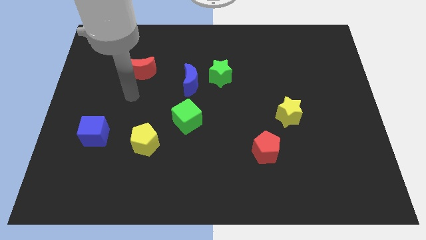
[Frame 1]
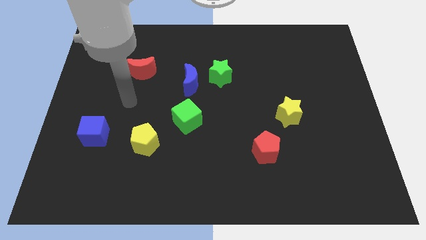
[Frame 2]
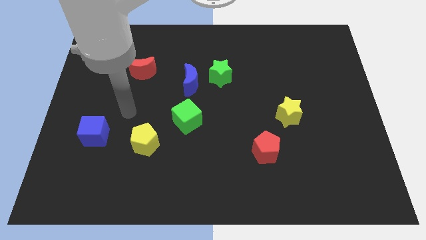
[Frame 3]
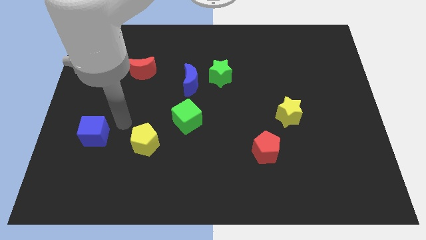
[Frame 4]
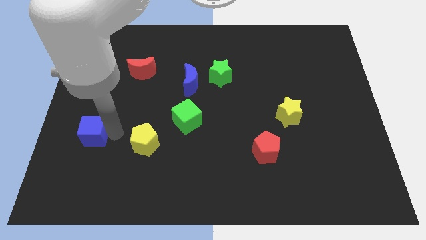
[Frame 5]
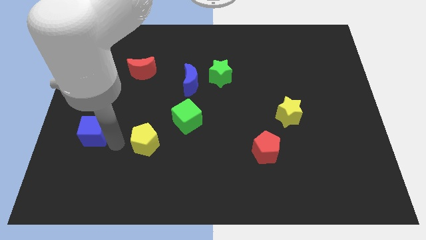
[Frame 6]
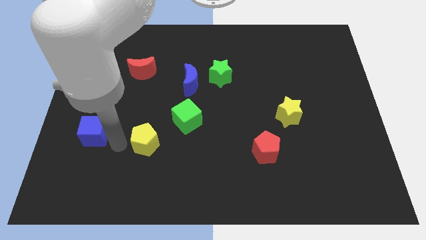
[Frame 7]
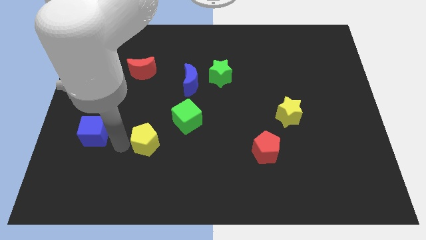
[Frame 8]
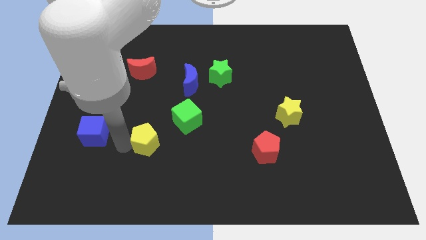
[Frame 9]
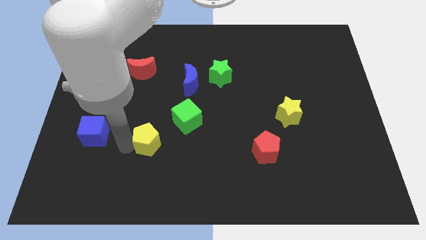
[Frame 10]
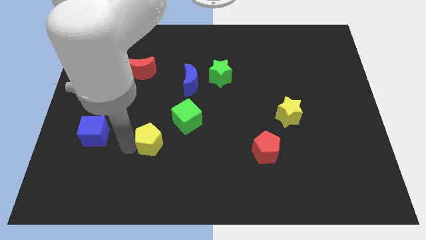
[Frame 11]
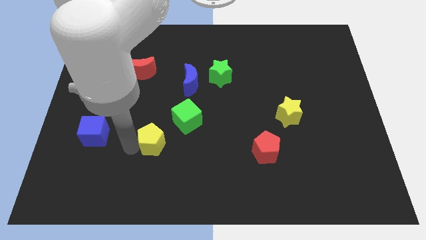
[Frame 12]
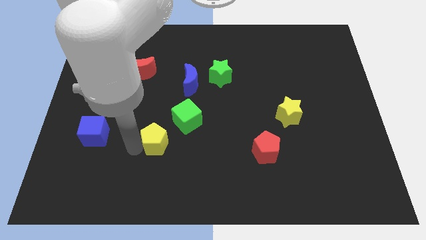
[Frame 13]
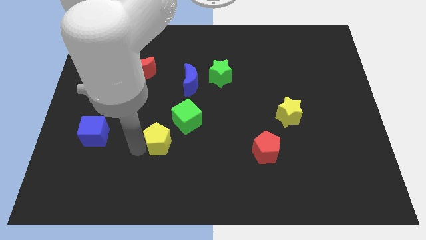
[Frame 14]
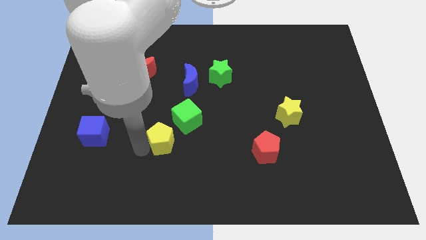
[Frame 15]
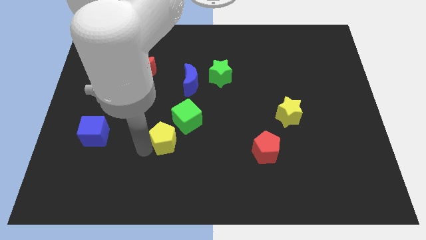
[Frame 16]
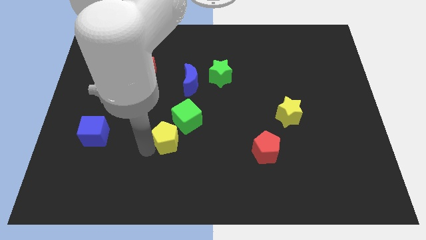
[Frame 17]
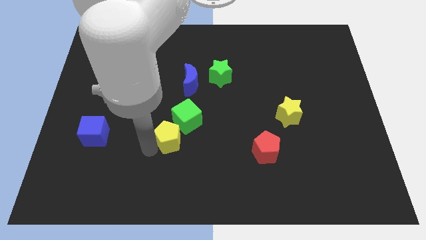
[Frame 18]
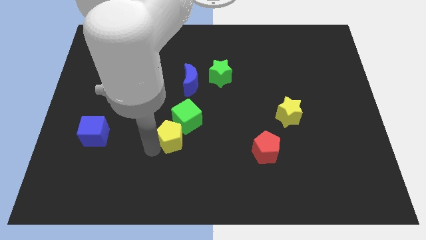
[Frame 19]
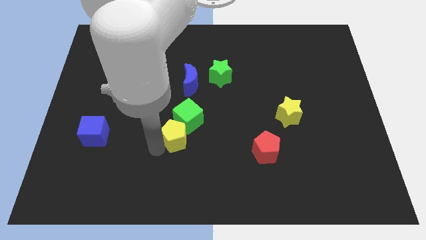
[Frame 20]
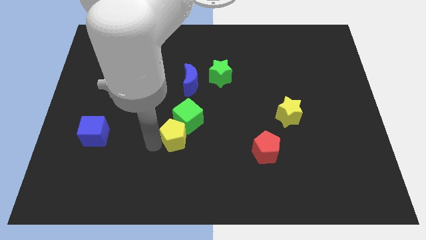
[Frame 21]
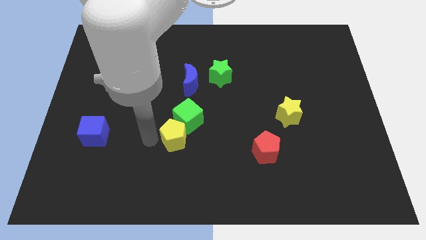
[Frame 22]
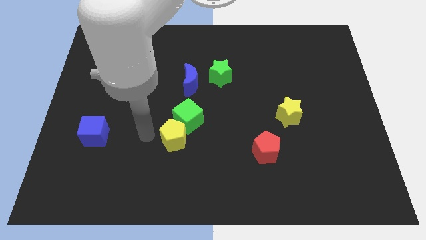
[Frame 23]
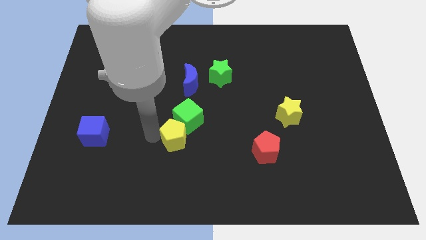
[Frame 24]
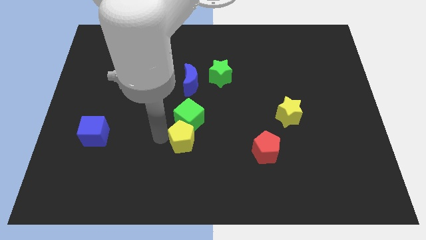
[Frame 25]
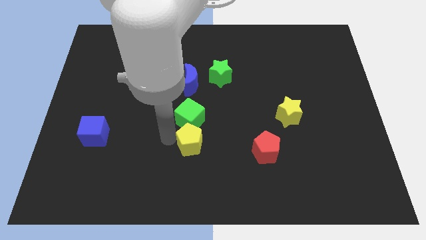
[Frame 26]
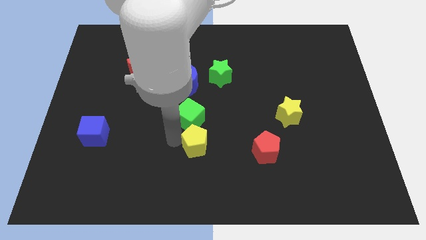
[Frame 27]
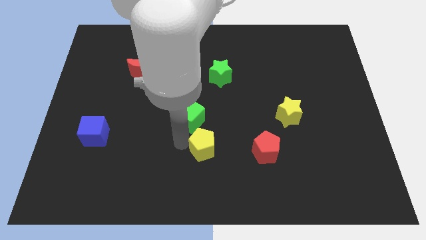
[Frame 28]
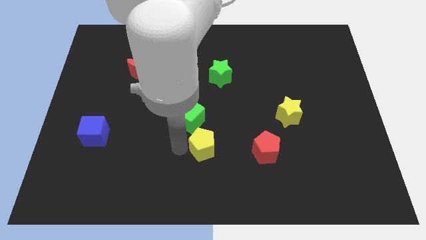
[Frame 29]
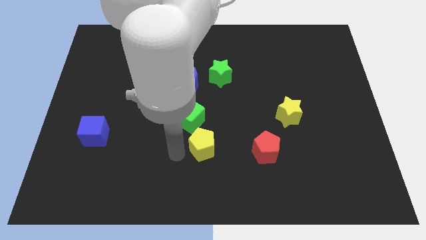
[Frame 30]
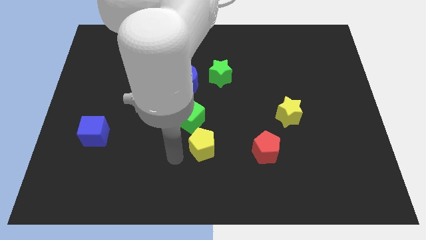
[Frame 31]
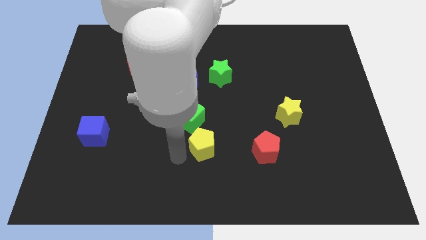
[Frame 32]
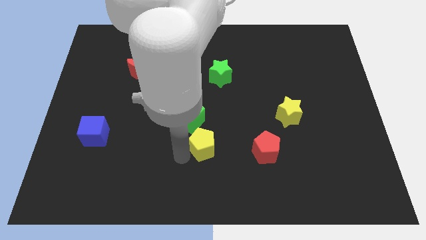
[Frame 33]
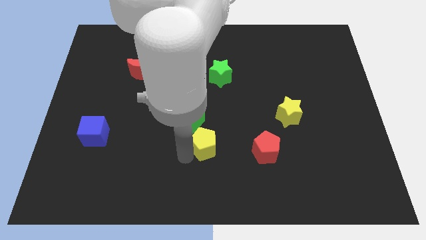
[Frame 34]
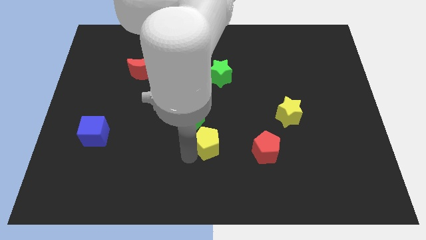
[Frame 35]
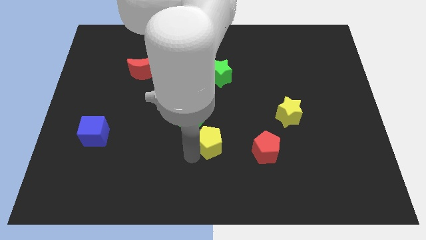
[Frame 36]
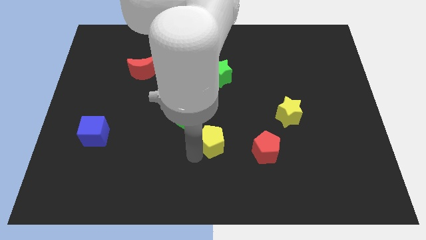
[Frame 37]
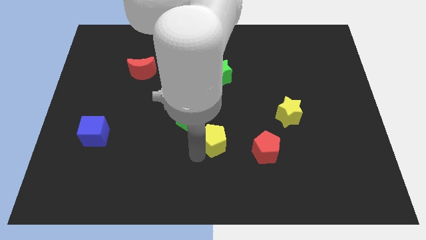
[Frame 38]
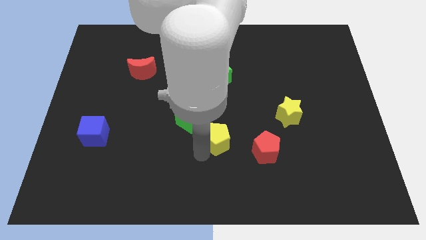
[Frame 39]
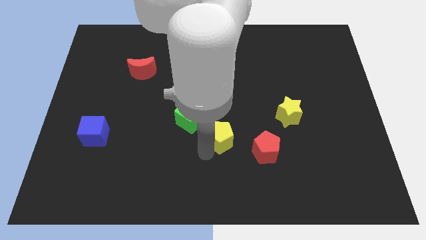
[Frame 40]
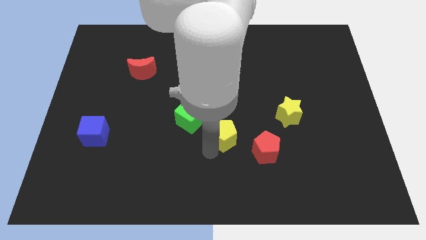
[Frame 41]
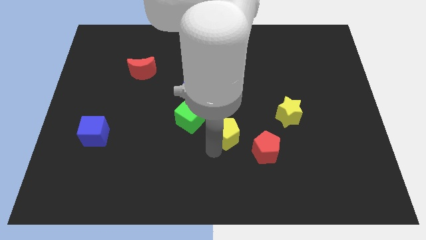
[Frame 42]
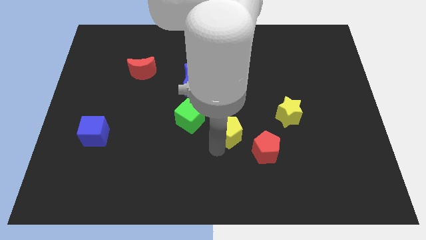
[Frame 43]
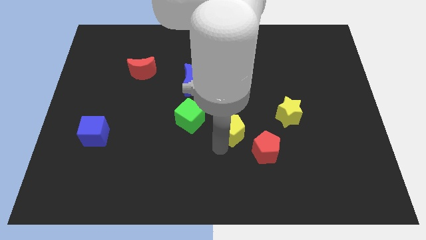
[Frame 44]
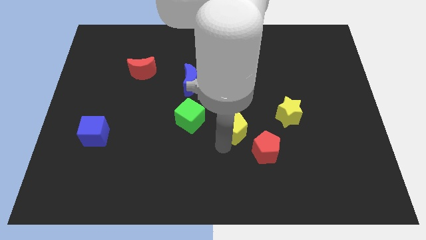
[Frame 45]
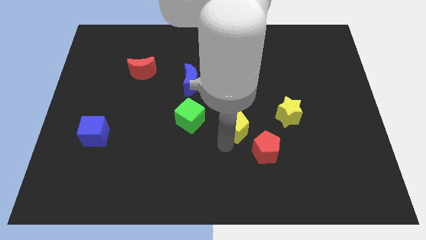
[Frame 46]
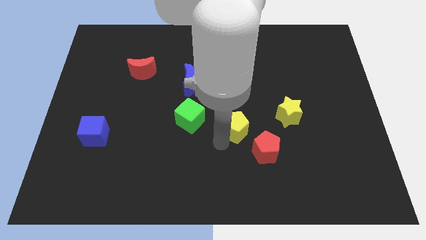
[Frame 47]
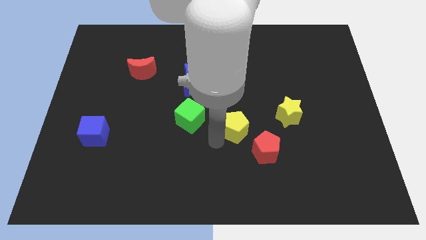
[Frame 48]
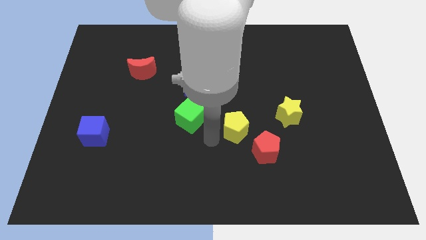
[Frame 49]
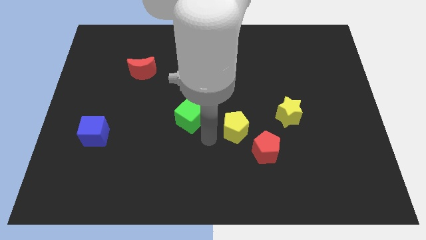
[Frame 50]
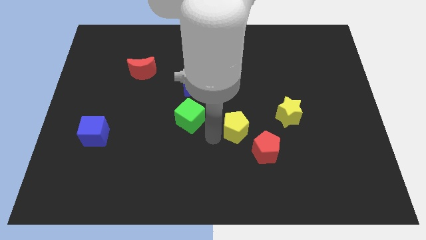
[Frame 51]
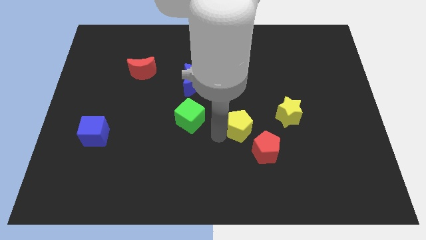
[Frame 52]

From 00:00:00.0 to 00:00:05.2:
move the yellow pentagon to the right

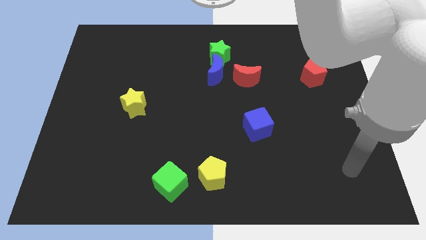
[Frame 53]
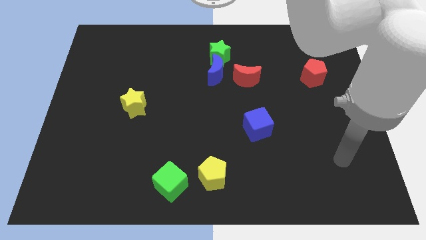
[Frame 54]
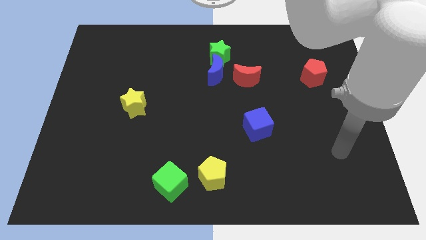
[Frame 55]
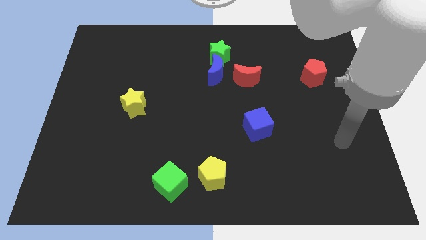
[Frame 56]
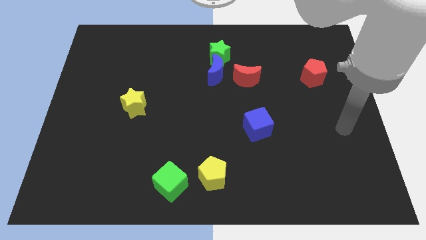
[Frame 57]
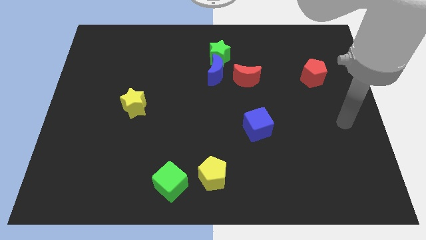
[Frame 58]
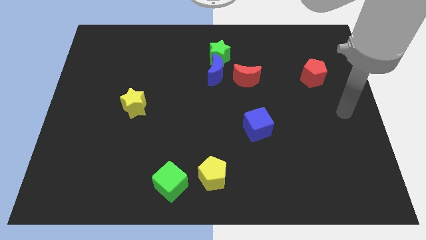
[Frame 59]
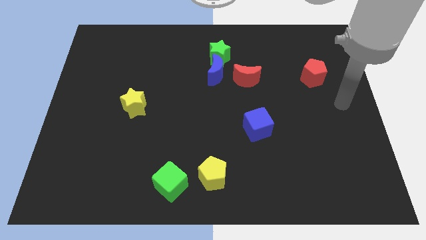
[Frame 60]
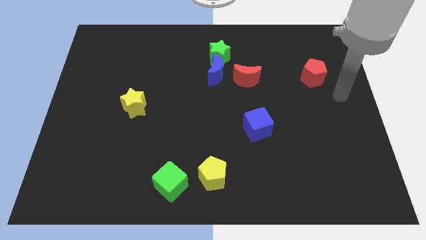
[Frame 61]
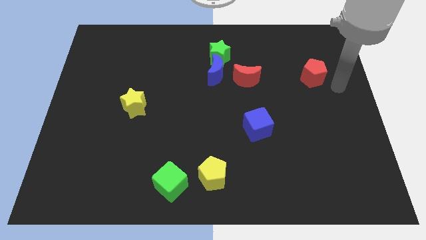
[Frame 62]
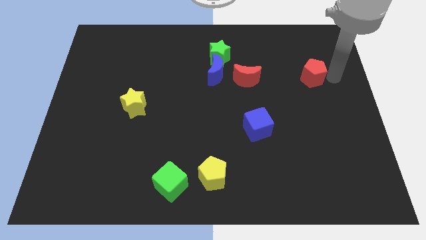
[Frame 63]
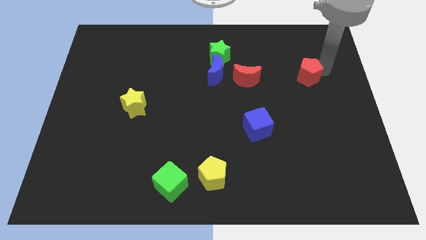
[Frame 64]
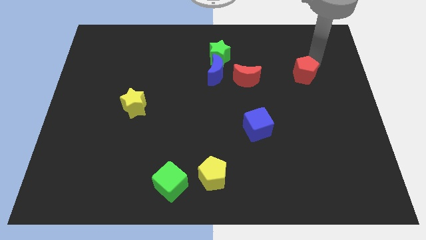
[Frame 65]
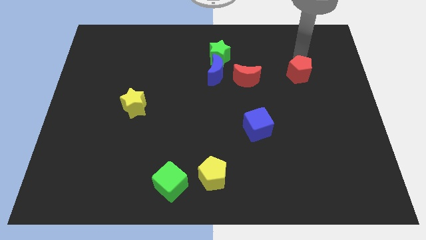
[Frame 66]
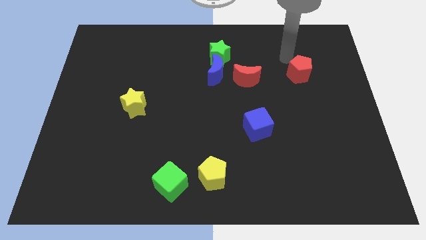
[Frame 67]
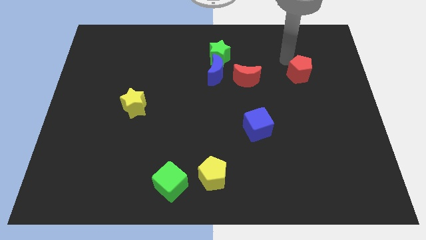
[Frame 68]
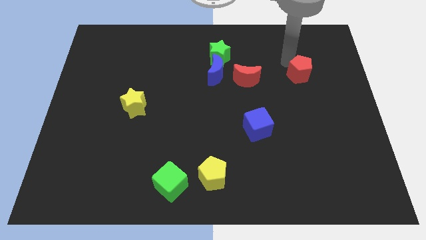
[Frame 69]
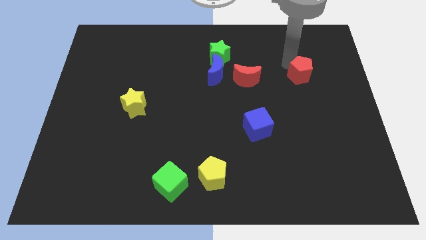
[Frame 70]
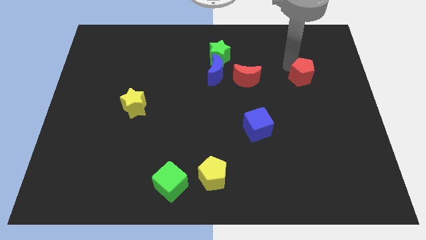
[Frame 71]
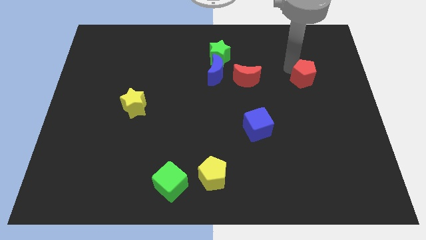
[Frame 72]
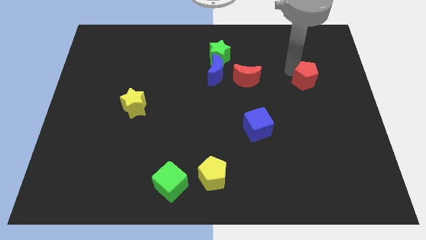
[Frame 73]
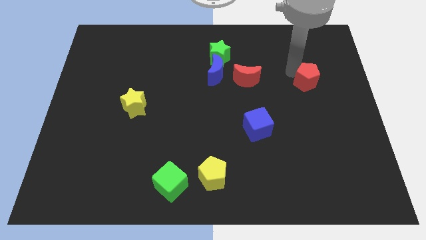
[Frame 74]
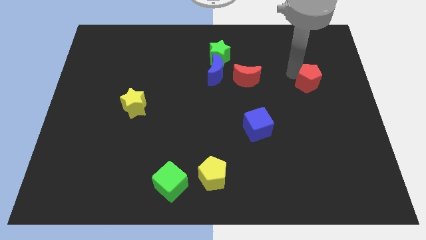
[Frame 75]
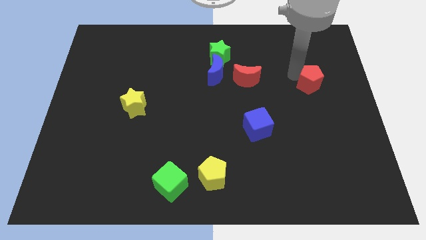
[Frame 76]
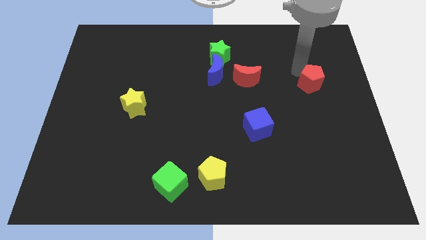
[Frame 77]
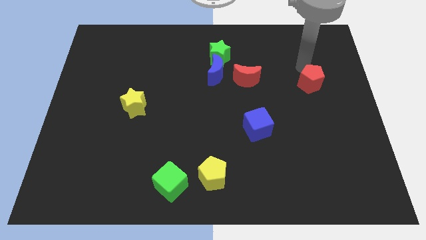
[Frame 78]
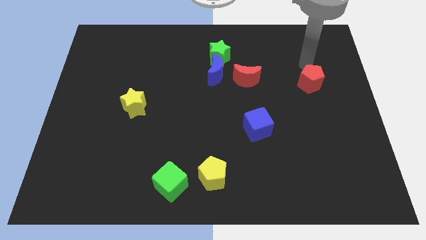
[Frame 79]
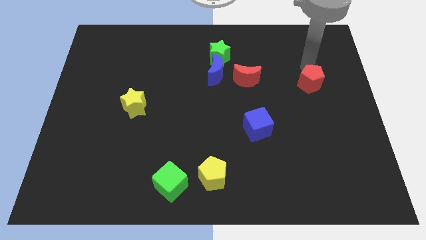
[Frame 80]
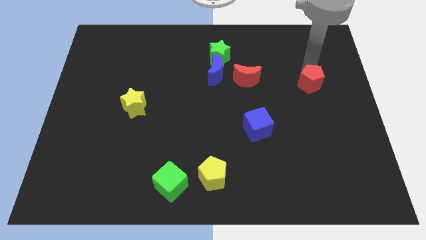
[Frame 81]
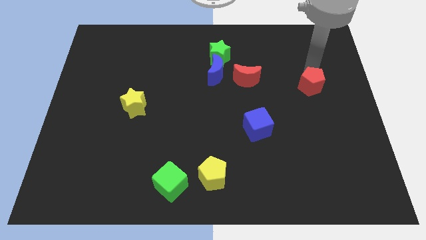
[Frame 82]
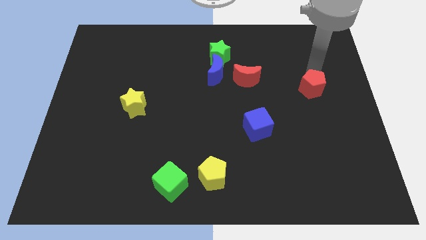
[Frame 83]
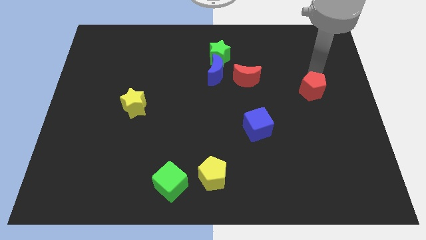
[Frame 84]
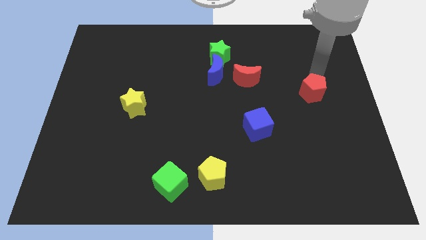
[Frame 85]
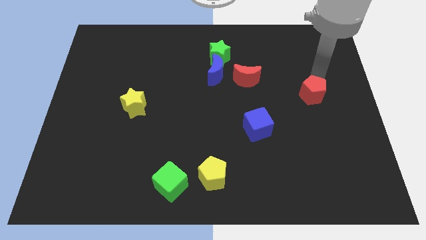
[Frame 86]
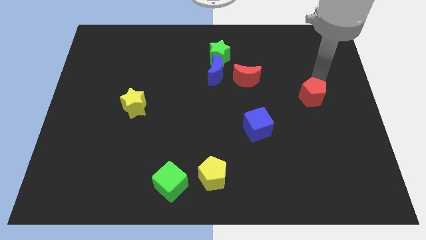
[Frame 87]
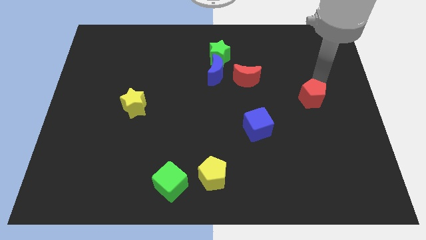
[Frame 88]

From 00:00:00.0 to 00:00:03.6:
move the red pentagon a little bit down
